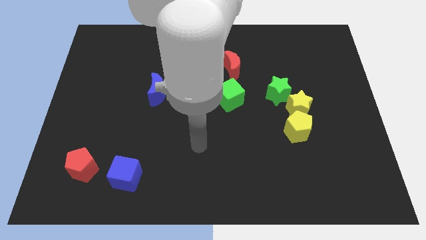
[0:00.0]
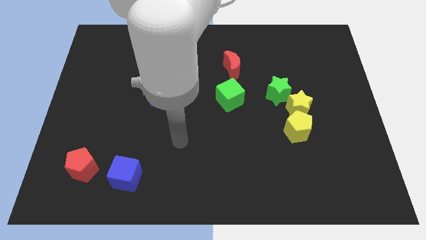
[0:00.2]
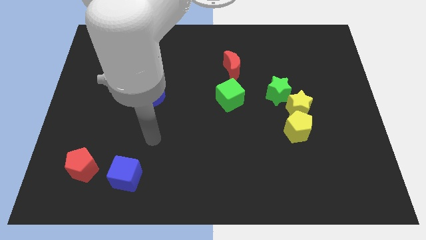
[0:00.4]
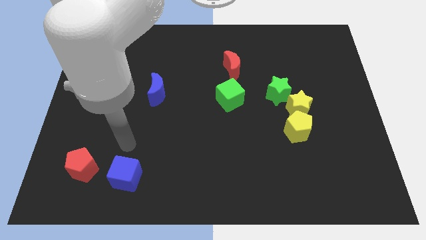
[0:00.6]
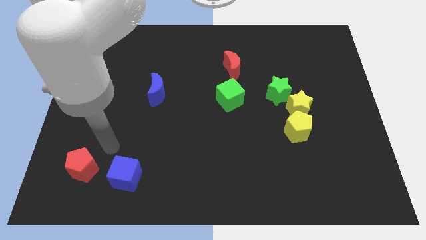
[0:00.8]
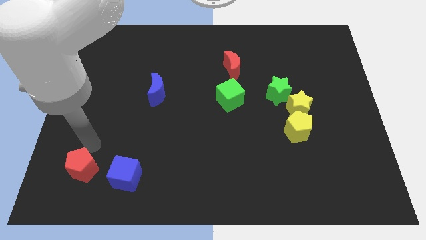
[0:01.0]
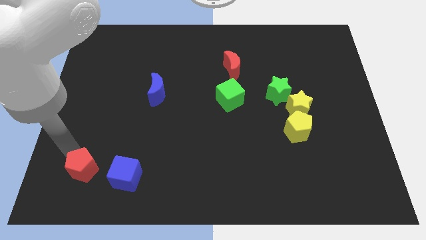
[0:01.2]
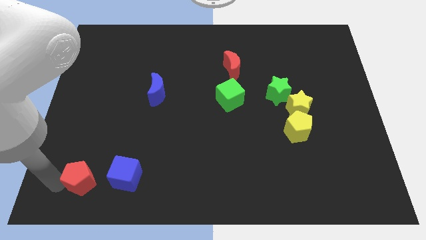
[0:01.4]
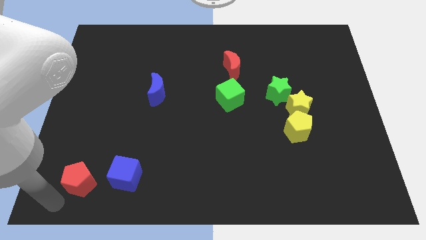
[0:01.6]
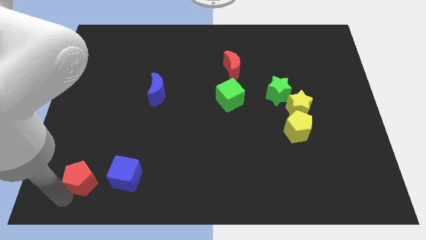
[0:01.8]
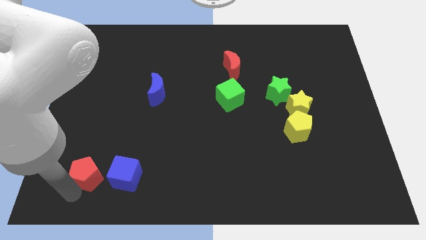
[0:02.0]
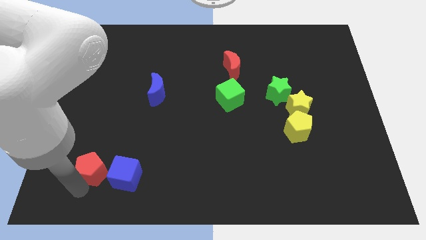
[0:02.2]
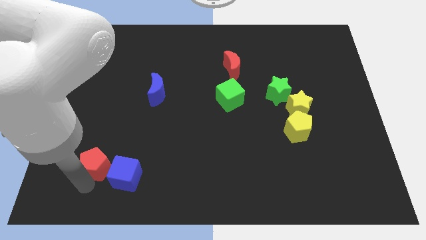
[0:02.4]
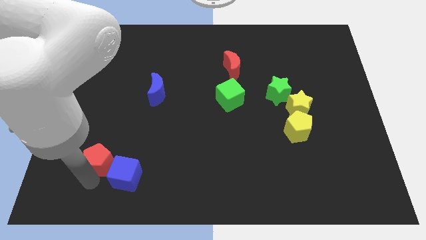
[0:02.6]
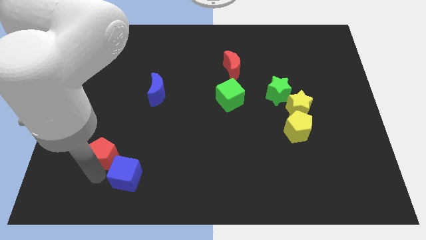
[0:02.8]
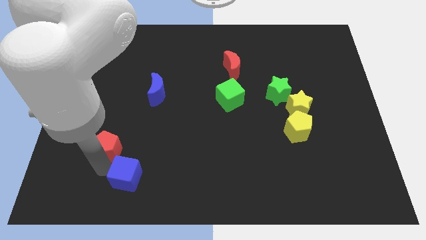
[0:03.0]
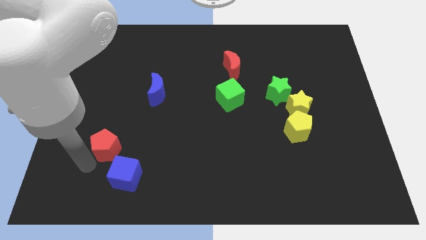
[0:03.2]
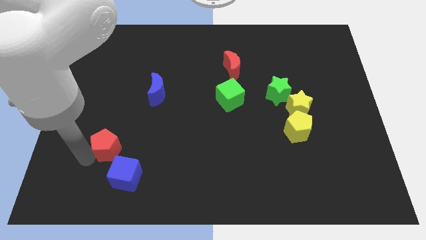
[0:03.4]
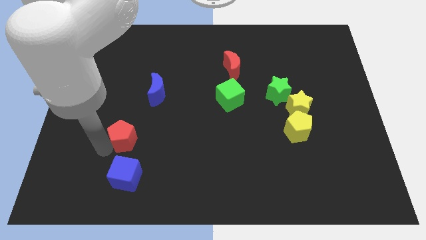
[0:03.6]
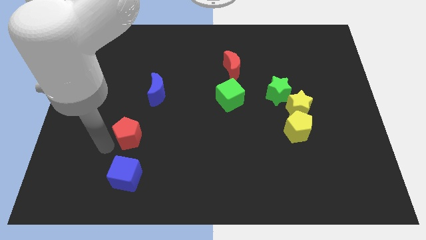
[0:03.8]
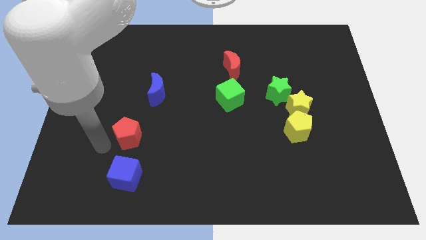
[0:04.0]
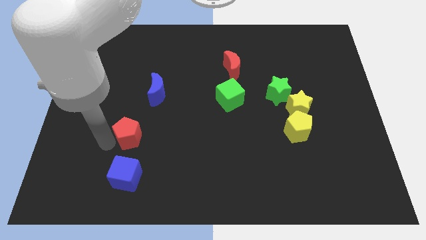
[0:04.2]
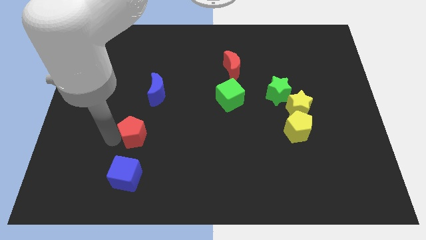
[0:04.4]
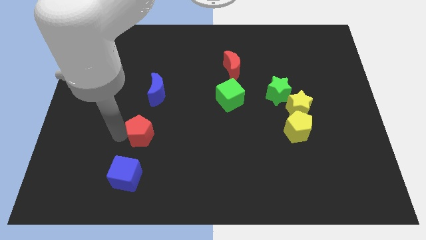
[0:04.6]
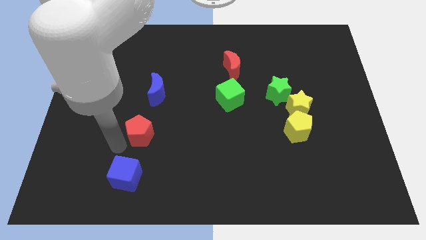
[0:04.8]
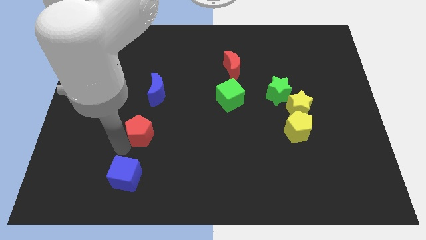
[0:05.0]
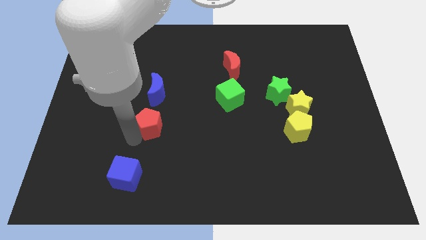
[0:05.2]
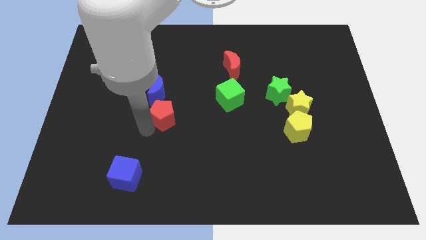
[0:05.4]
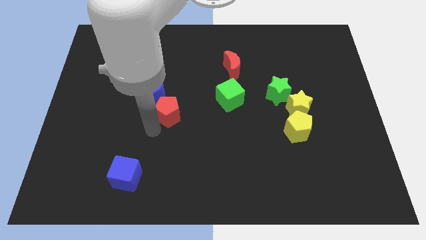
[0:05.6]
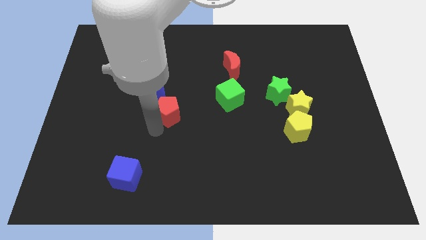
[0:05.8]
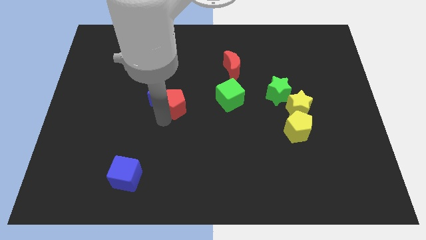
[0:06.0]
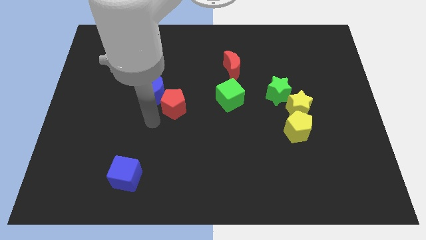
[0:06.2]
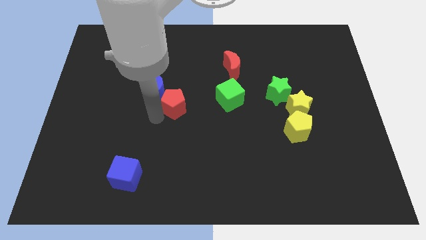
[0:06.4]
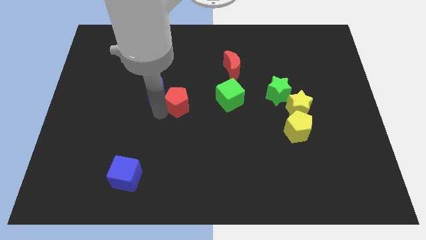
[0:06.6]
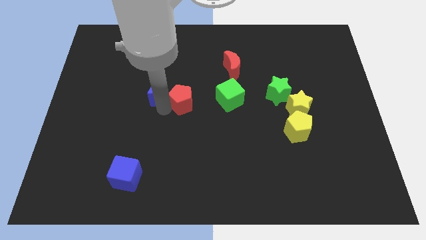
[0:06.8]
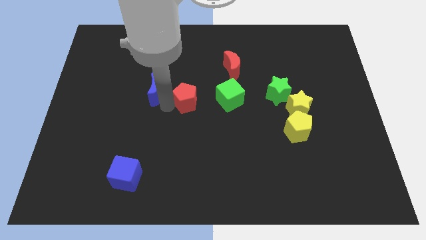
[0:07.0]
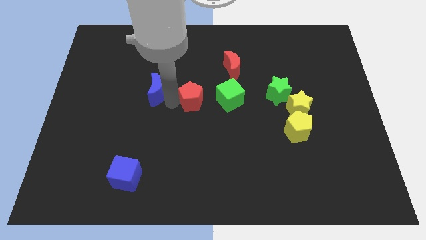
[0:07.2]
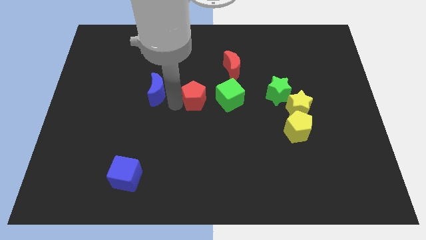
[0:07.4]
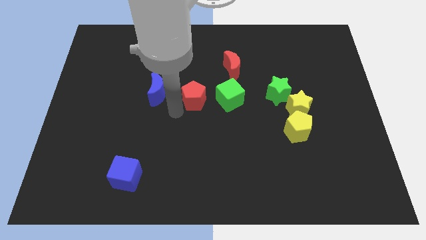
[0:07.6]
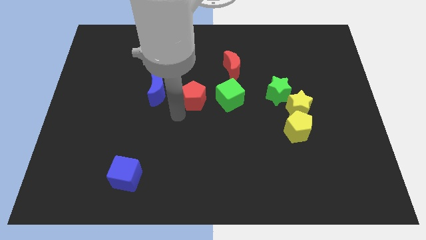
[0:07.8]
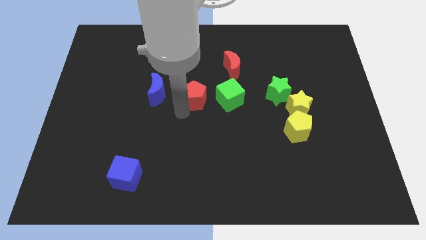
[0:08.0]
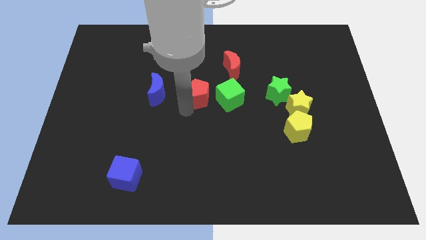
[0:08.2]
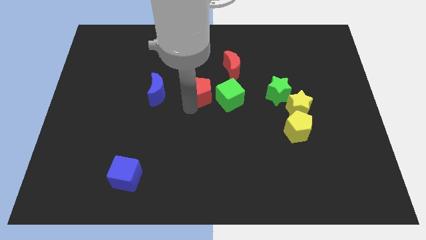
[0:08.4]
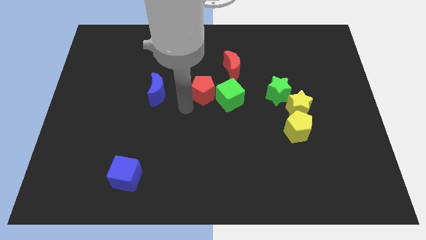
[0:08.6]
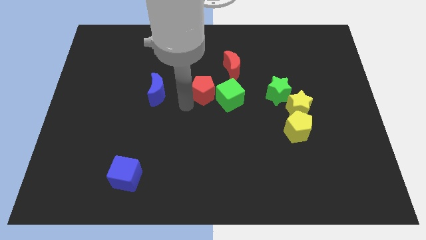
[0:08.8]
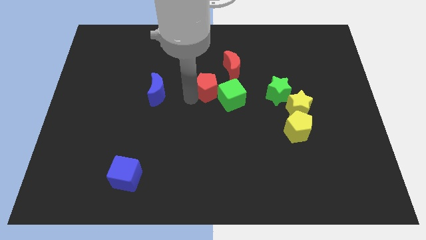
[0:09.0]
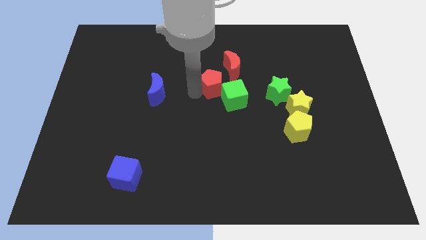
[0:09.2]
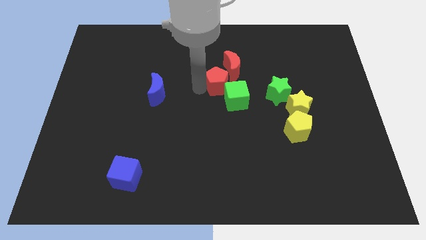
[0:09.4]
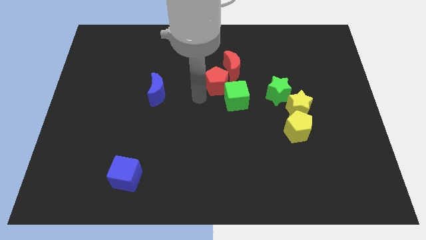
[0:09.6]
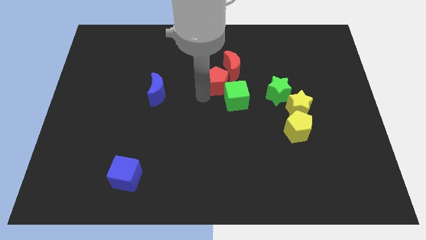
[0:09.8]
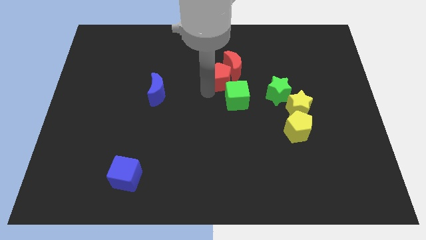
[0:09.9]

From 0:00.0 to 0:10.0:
move the red pentagon towards the red moon

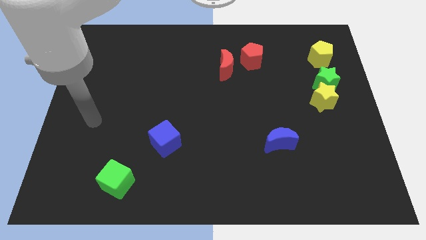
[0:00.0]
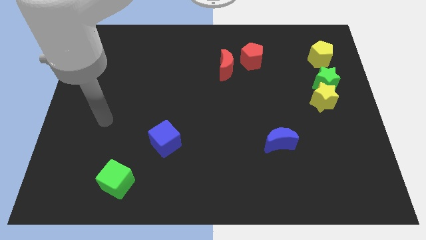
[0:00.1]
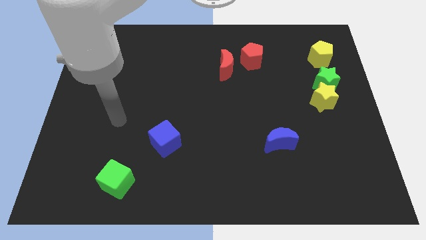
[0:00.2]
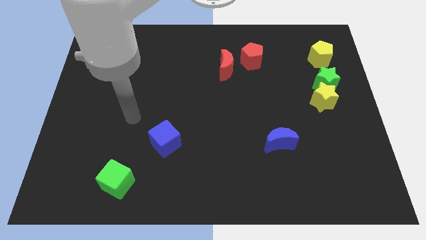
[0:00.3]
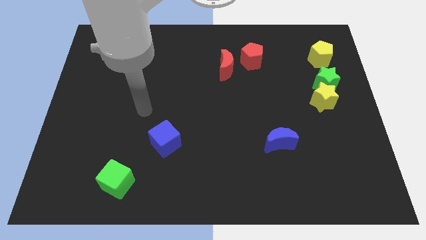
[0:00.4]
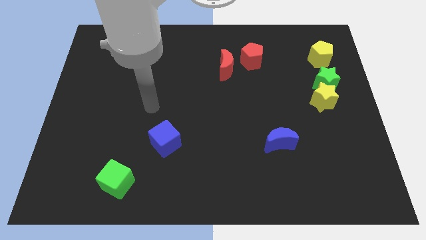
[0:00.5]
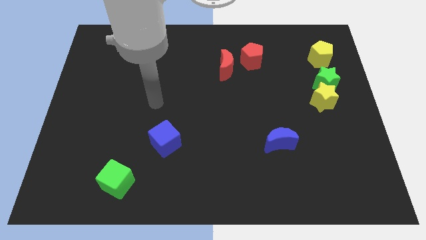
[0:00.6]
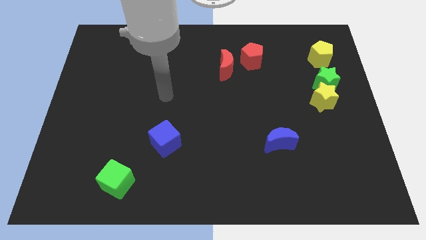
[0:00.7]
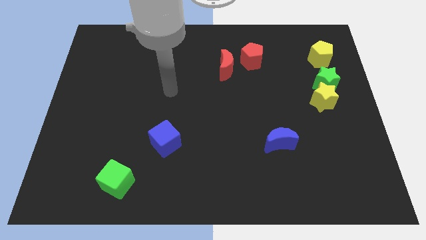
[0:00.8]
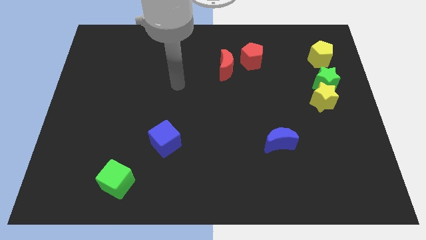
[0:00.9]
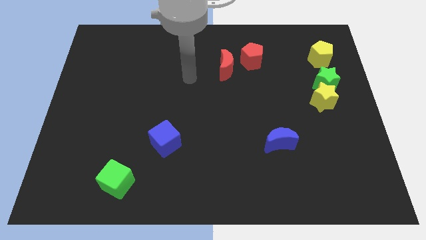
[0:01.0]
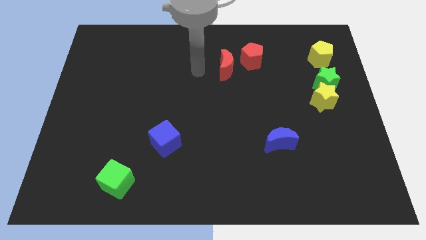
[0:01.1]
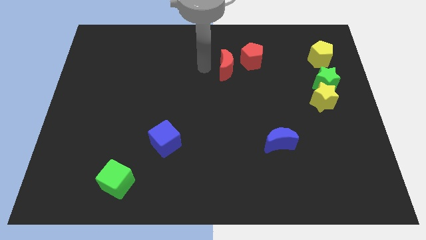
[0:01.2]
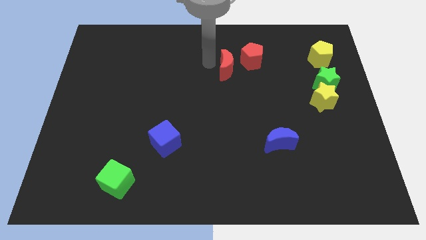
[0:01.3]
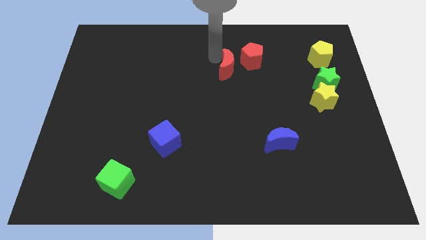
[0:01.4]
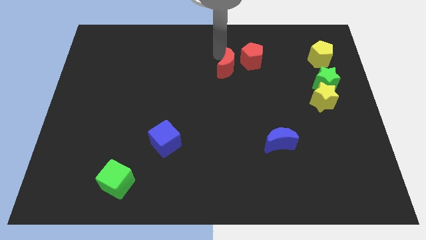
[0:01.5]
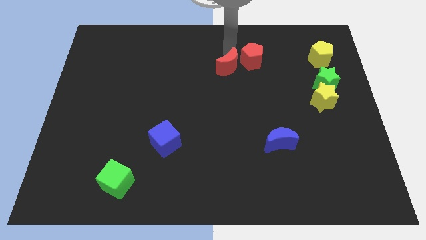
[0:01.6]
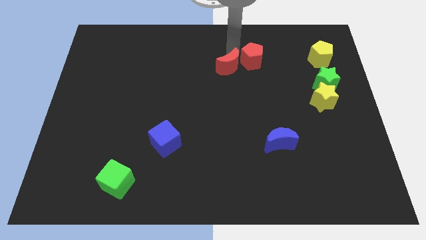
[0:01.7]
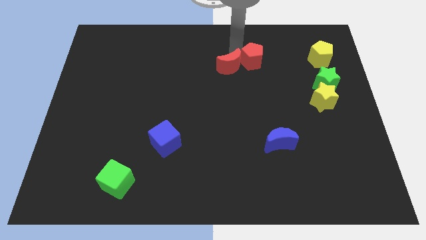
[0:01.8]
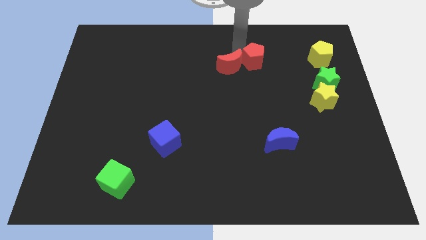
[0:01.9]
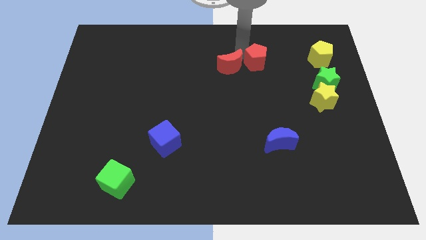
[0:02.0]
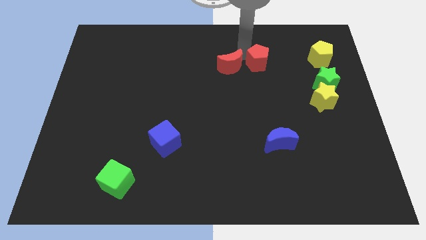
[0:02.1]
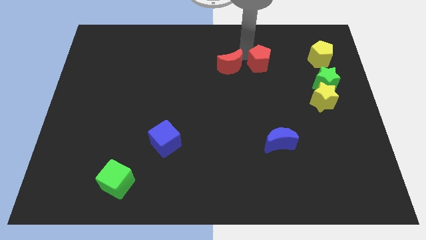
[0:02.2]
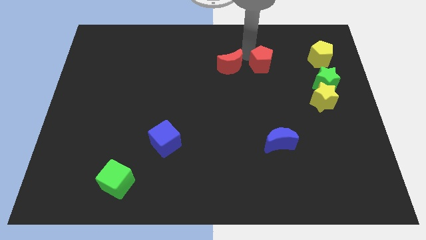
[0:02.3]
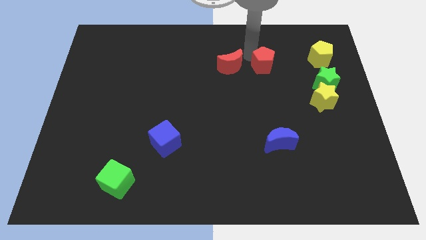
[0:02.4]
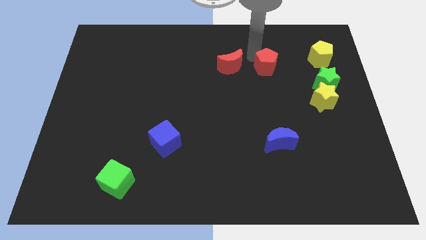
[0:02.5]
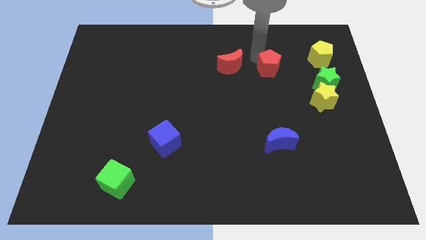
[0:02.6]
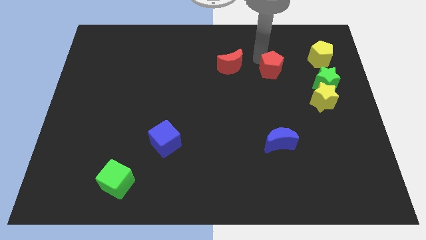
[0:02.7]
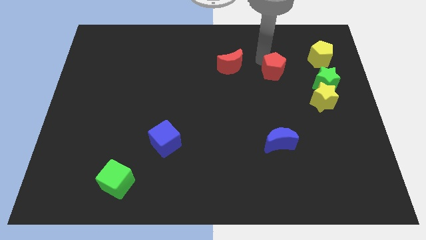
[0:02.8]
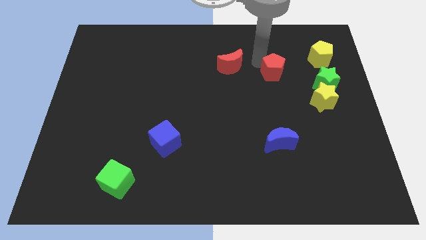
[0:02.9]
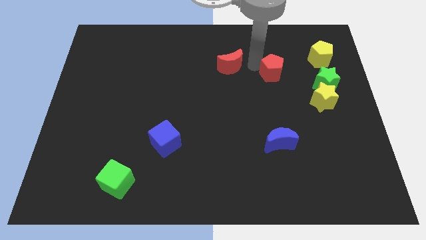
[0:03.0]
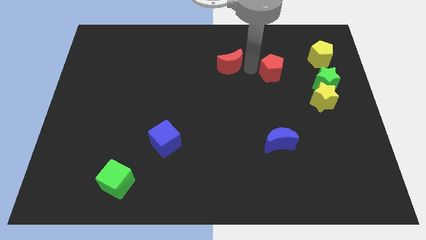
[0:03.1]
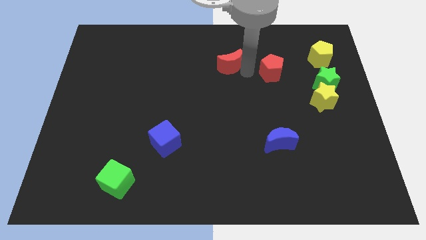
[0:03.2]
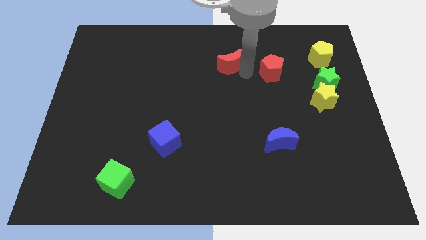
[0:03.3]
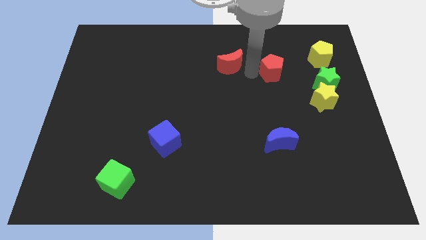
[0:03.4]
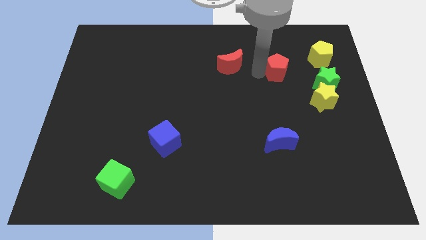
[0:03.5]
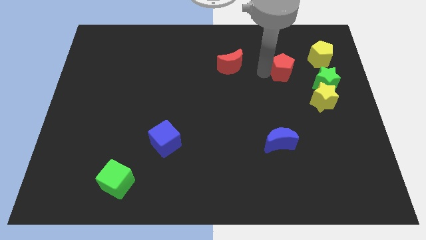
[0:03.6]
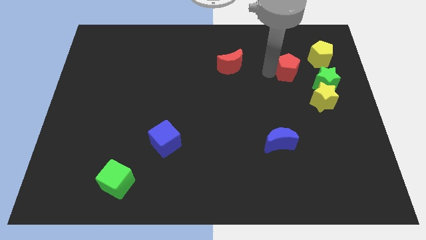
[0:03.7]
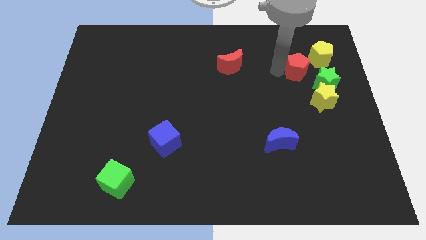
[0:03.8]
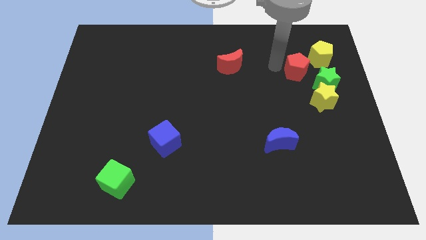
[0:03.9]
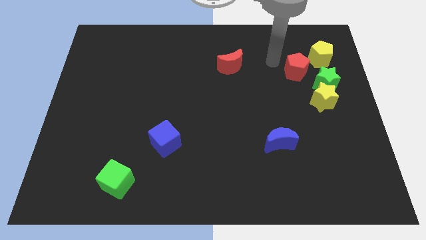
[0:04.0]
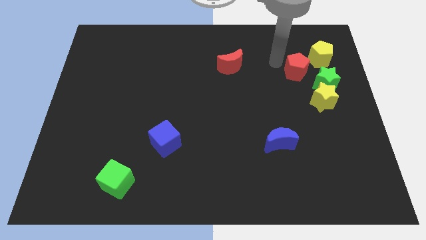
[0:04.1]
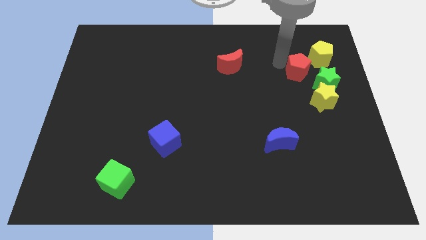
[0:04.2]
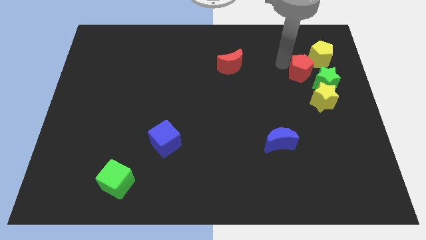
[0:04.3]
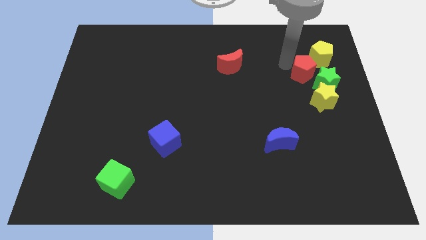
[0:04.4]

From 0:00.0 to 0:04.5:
slide the red pentagon towards the green star
